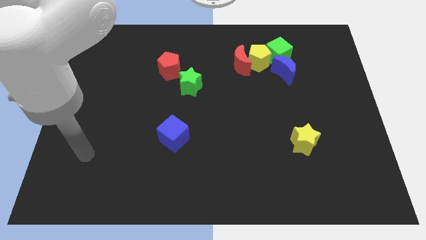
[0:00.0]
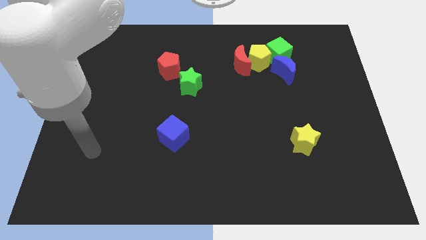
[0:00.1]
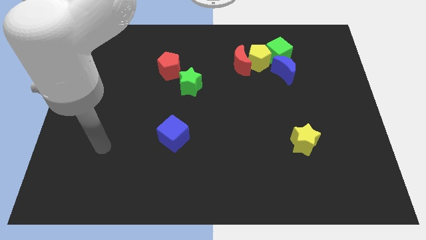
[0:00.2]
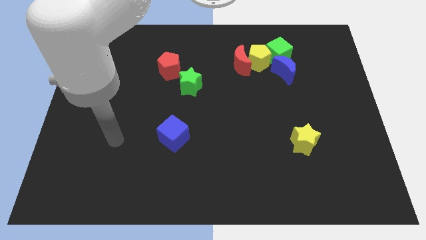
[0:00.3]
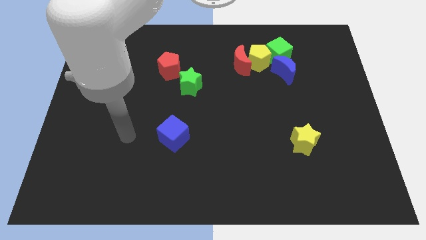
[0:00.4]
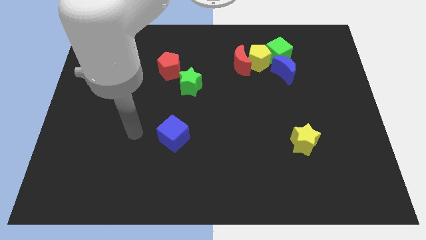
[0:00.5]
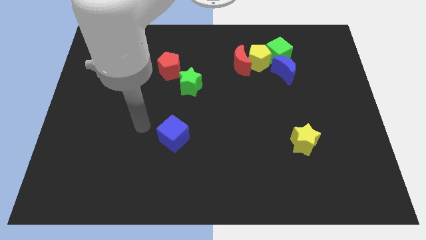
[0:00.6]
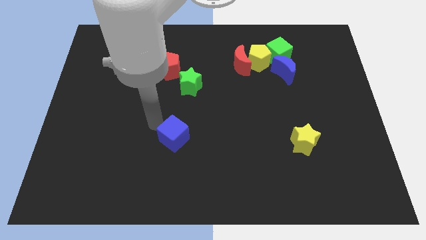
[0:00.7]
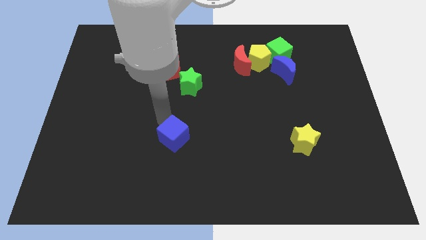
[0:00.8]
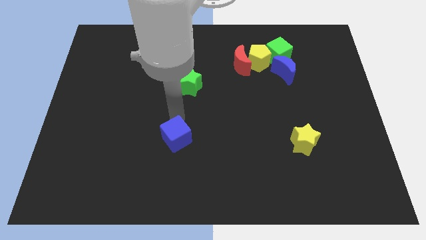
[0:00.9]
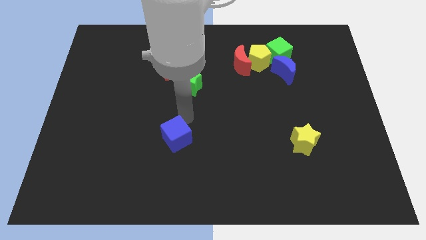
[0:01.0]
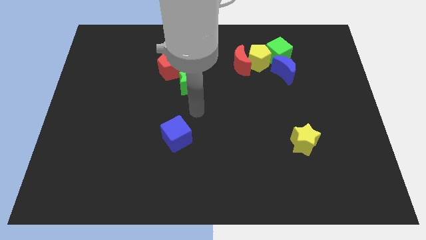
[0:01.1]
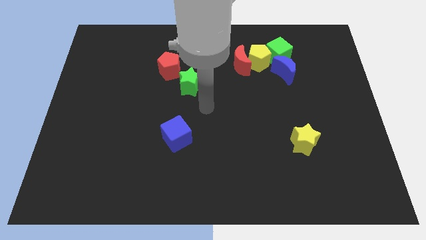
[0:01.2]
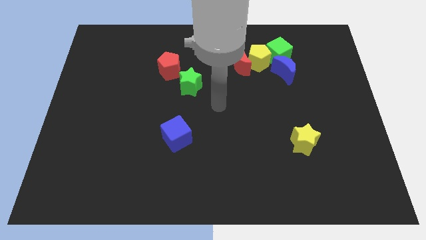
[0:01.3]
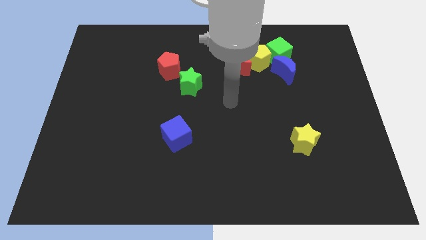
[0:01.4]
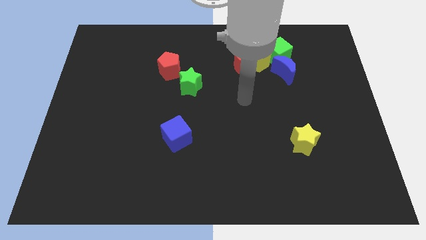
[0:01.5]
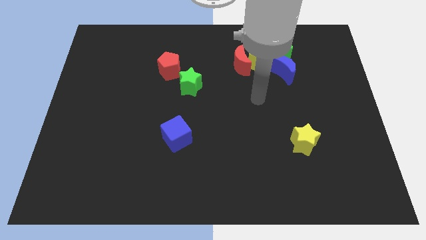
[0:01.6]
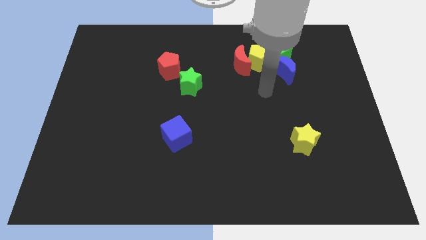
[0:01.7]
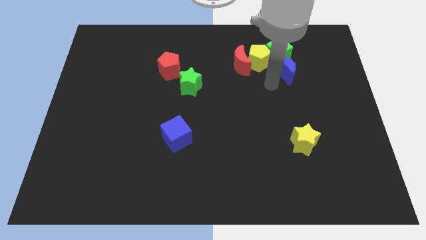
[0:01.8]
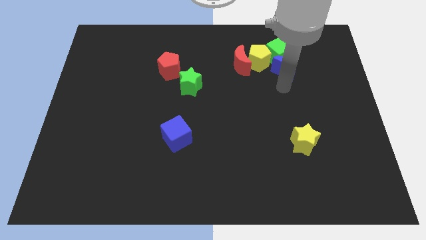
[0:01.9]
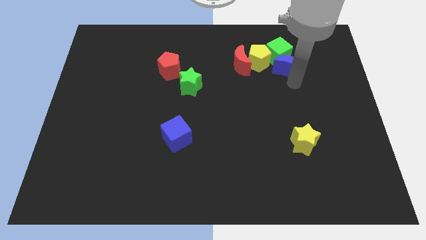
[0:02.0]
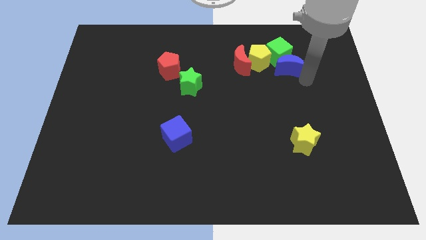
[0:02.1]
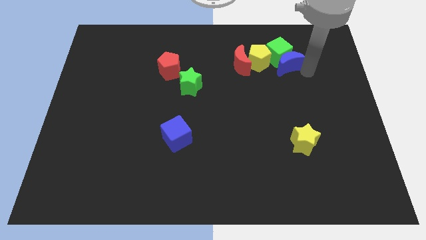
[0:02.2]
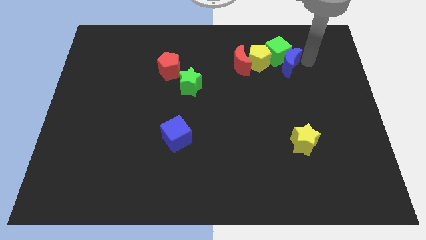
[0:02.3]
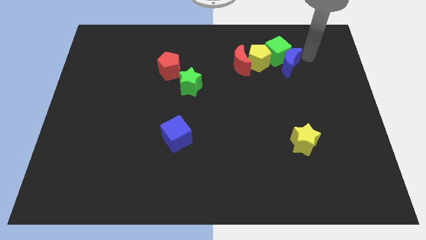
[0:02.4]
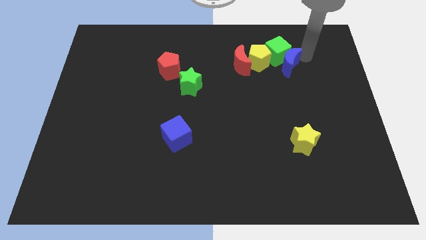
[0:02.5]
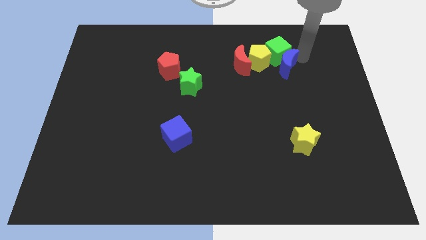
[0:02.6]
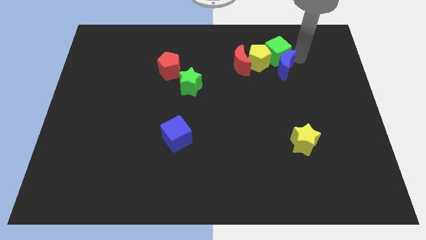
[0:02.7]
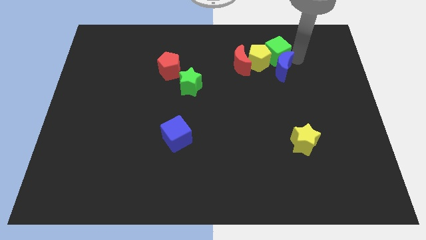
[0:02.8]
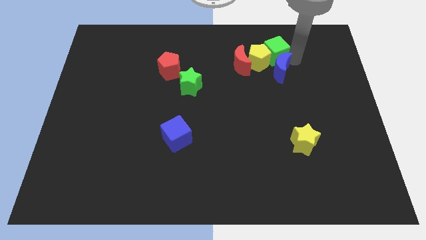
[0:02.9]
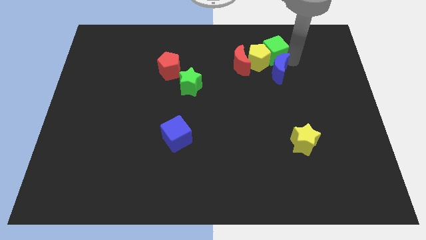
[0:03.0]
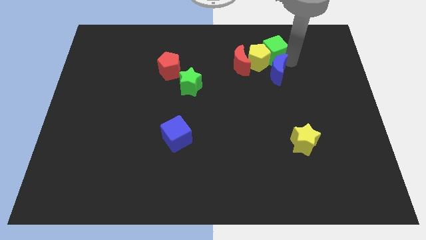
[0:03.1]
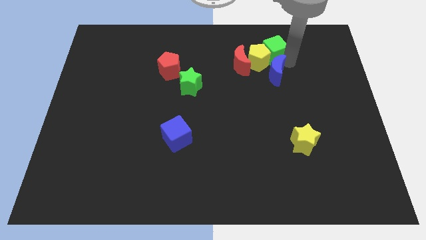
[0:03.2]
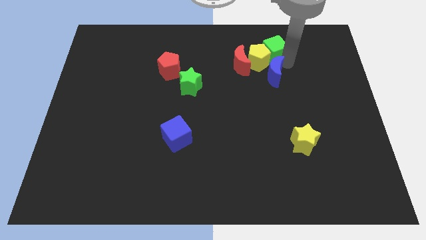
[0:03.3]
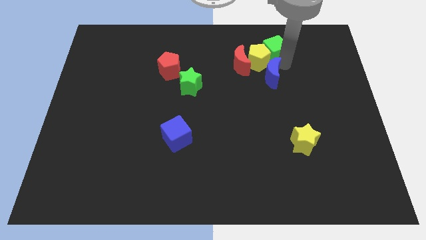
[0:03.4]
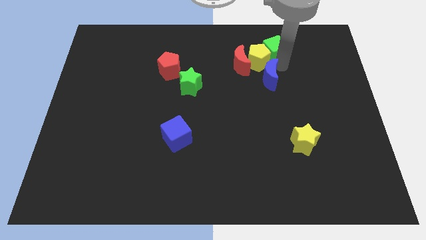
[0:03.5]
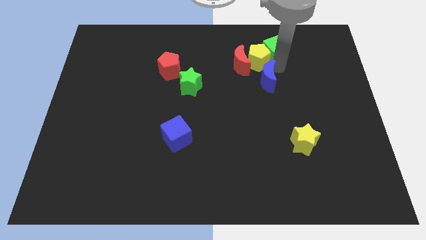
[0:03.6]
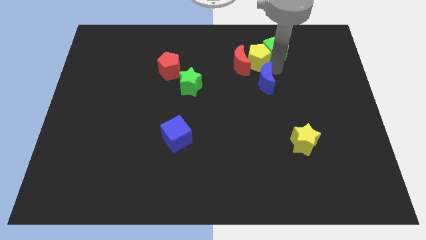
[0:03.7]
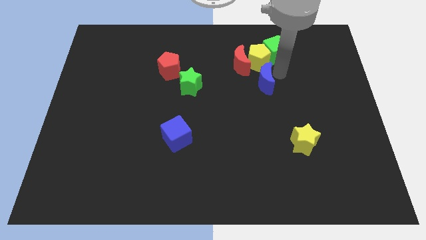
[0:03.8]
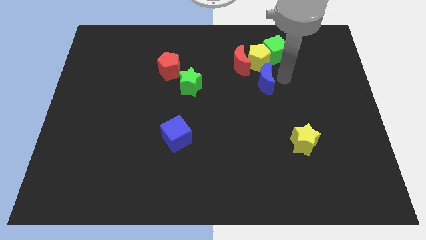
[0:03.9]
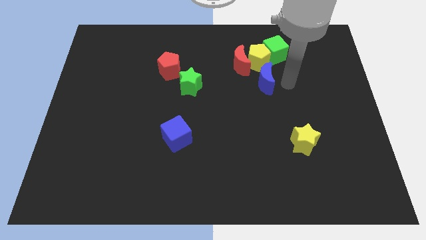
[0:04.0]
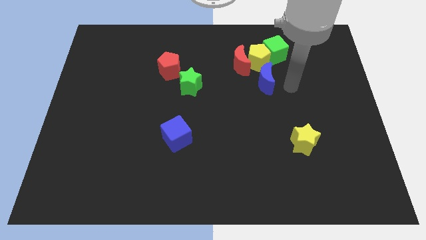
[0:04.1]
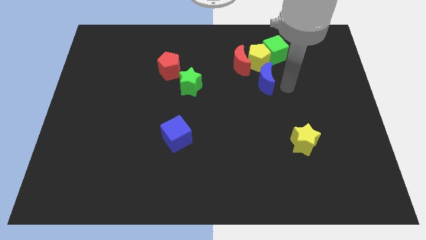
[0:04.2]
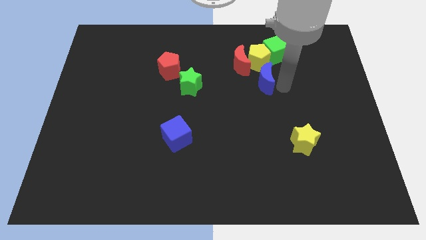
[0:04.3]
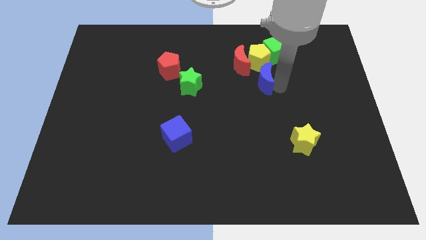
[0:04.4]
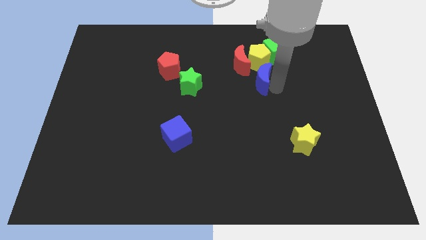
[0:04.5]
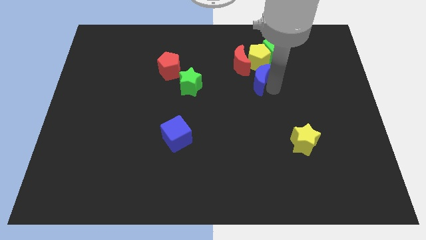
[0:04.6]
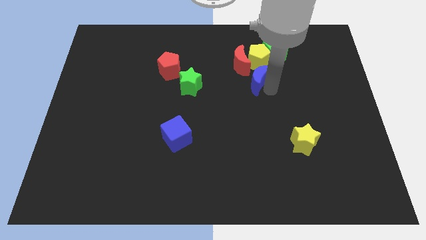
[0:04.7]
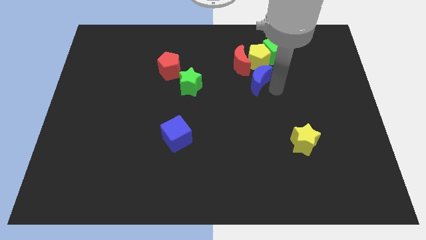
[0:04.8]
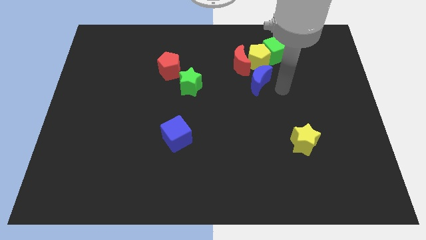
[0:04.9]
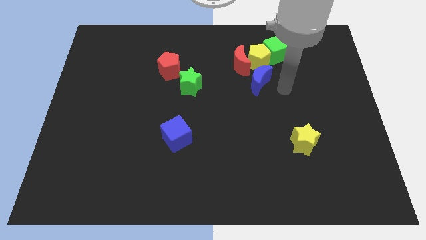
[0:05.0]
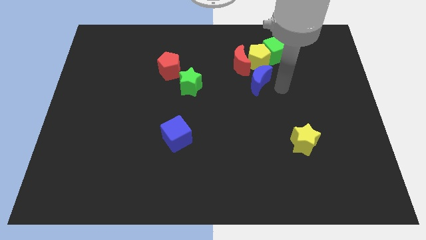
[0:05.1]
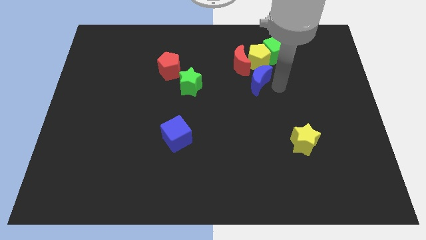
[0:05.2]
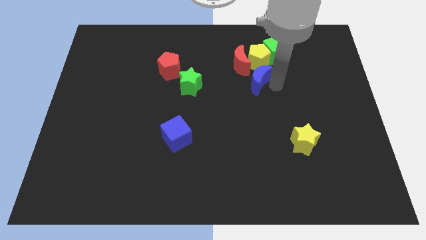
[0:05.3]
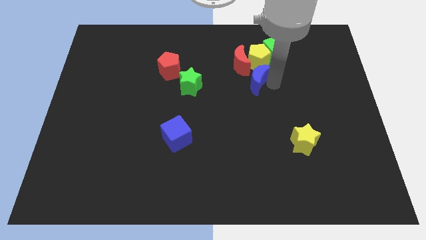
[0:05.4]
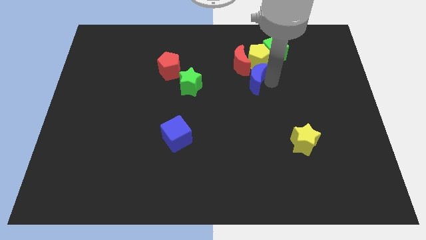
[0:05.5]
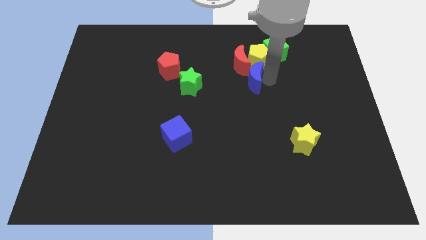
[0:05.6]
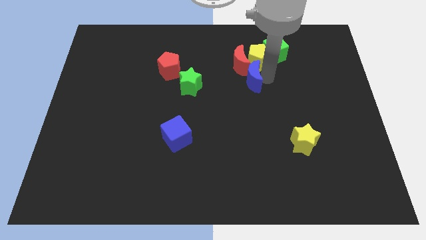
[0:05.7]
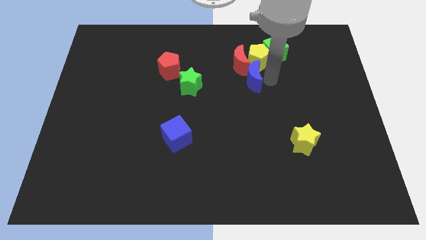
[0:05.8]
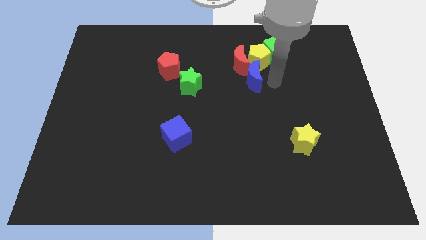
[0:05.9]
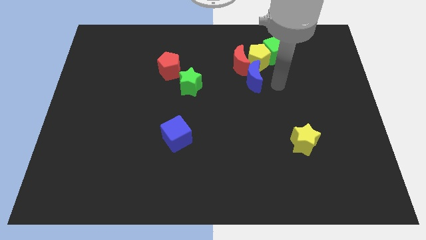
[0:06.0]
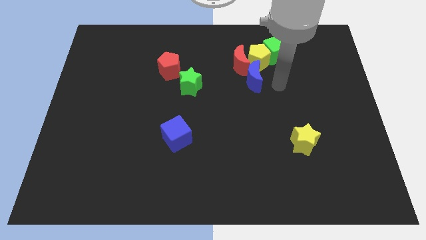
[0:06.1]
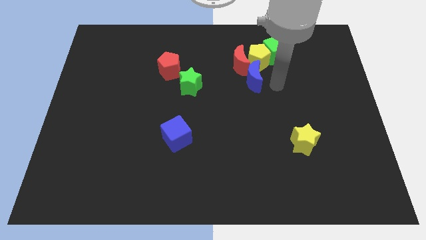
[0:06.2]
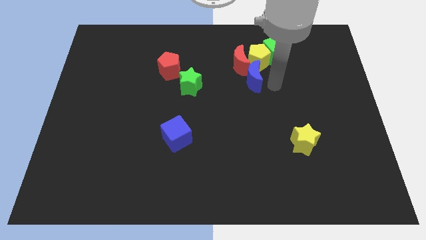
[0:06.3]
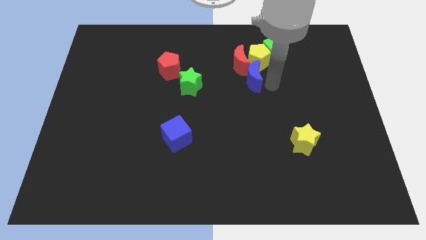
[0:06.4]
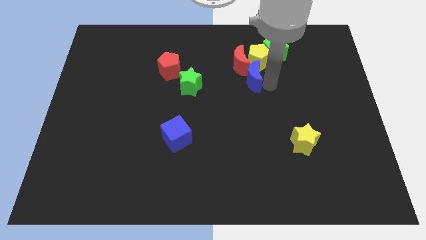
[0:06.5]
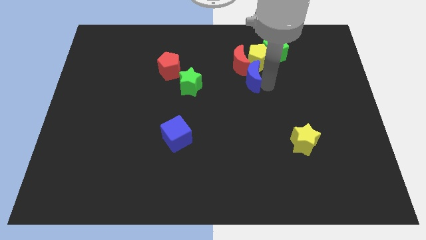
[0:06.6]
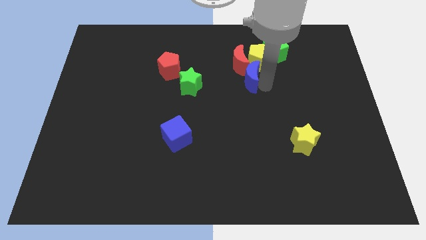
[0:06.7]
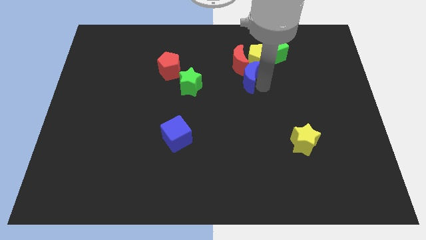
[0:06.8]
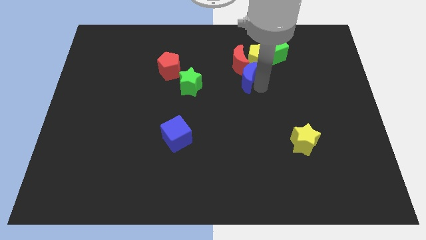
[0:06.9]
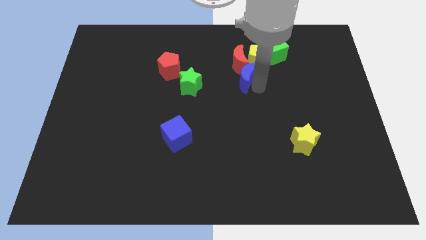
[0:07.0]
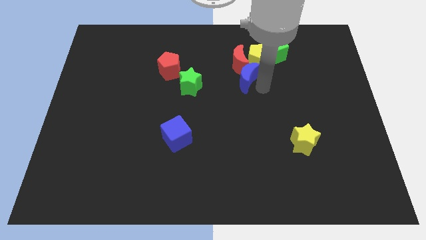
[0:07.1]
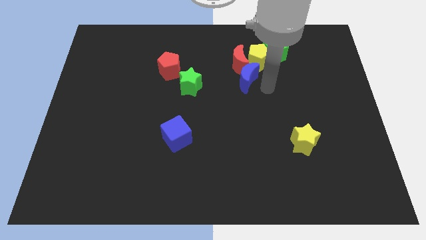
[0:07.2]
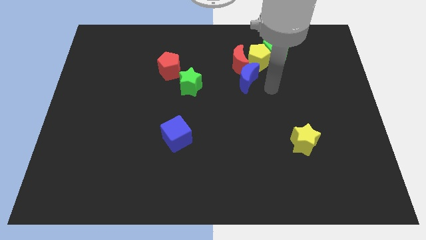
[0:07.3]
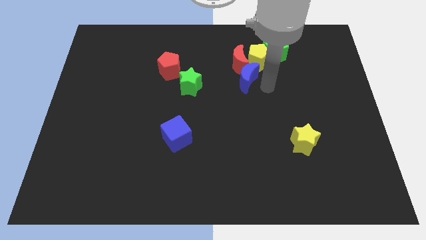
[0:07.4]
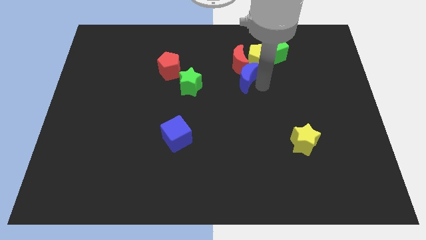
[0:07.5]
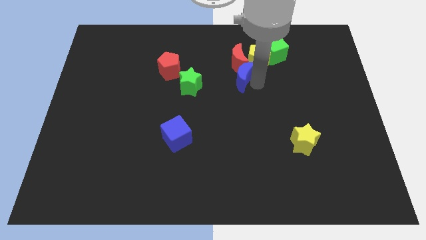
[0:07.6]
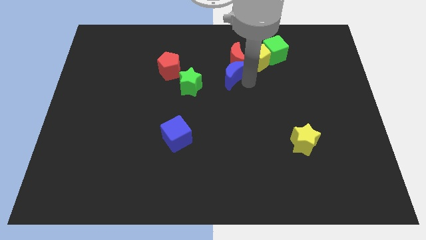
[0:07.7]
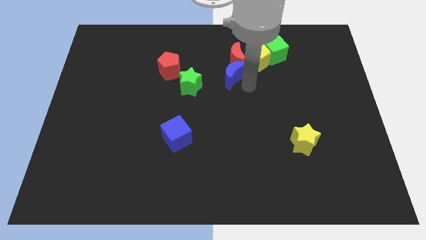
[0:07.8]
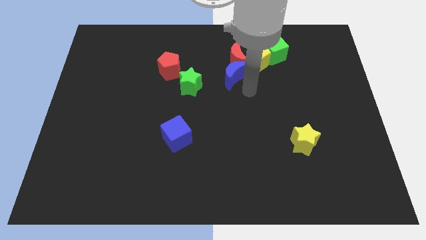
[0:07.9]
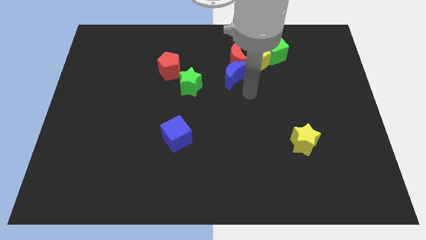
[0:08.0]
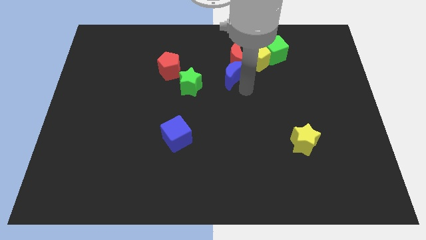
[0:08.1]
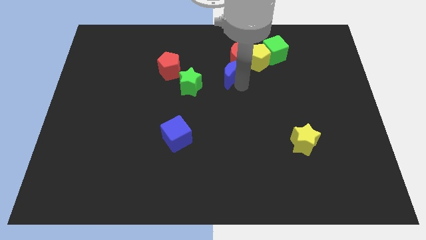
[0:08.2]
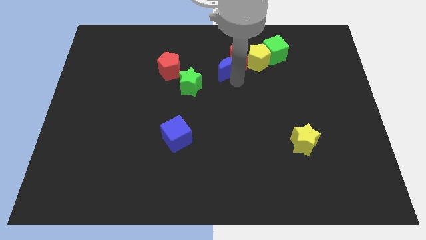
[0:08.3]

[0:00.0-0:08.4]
slide the blue moon to the left side of the yellow pentagon
